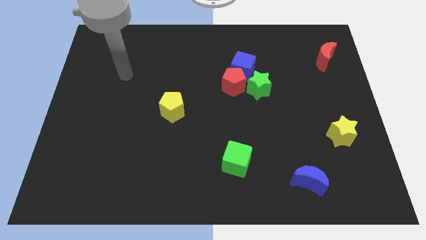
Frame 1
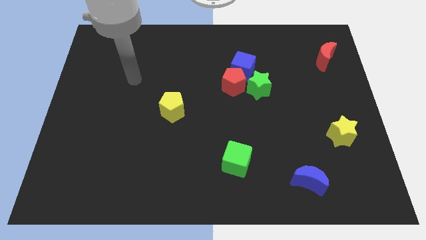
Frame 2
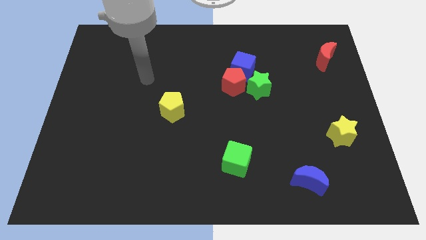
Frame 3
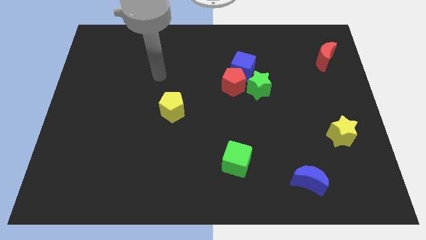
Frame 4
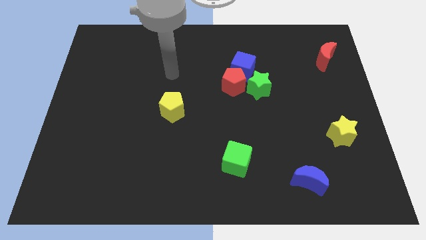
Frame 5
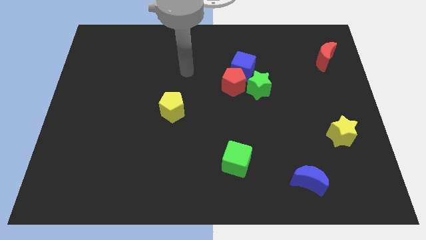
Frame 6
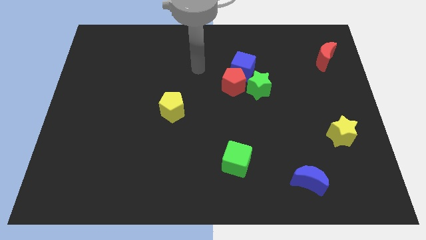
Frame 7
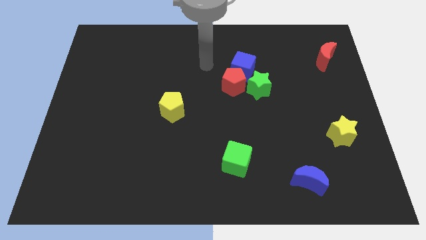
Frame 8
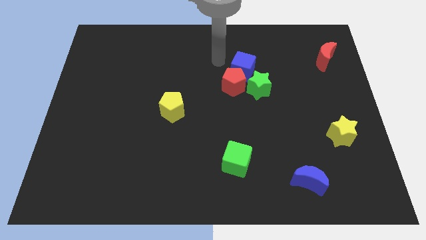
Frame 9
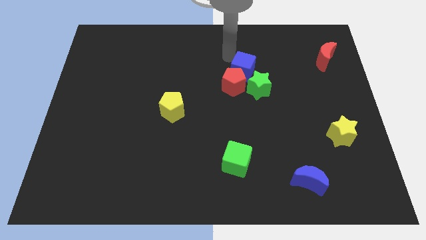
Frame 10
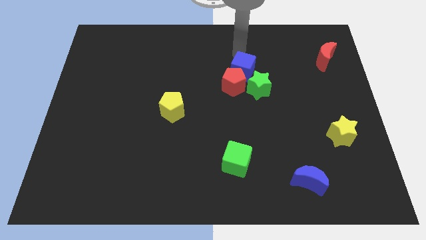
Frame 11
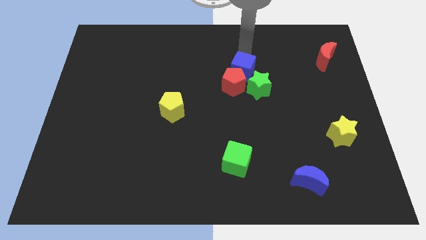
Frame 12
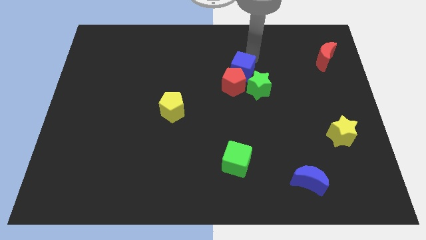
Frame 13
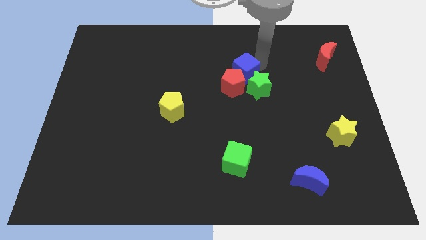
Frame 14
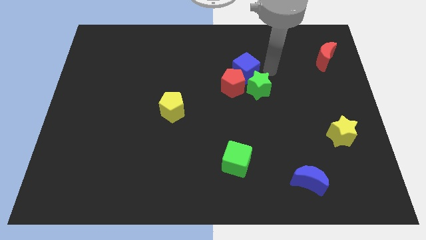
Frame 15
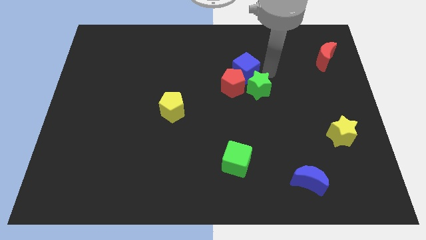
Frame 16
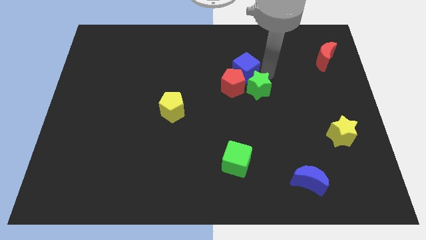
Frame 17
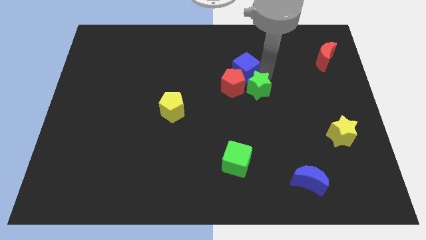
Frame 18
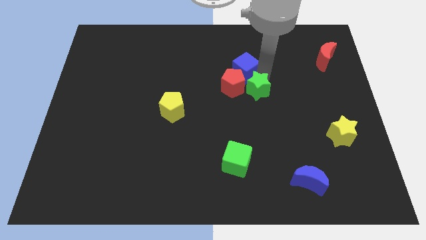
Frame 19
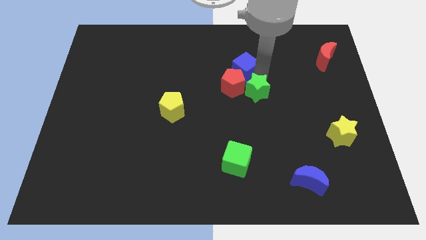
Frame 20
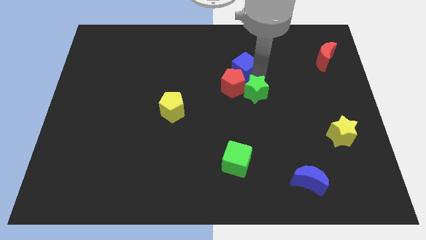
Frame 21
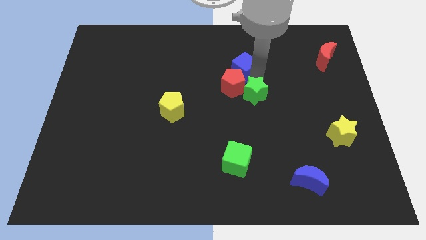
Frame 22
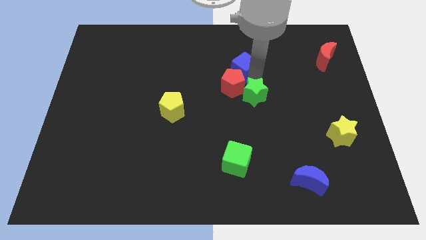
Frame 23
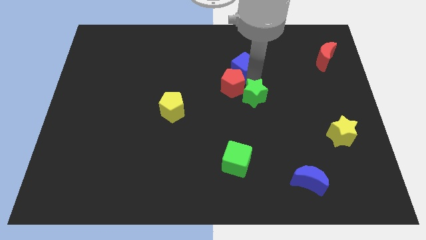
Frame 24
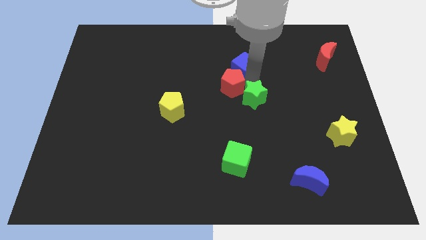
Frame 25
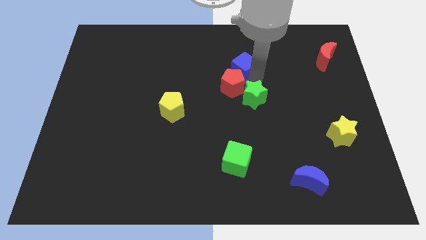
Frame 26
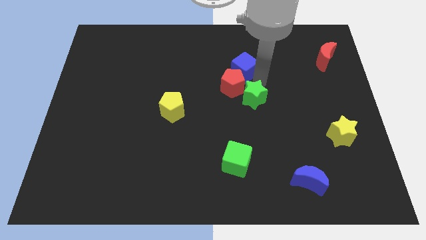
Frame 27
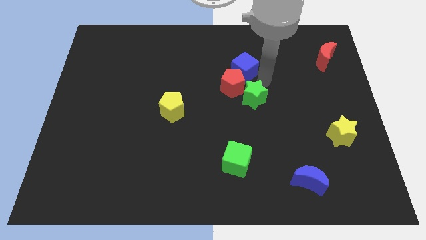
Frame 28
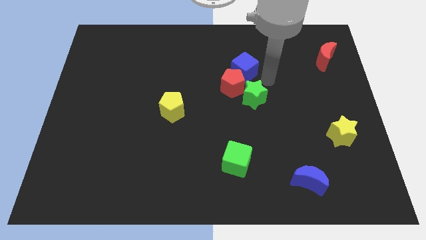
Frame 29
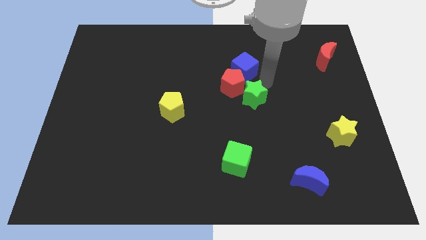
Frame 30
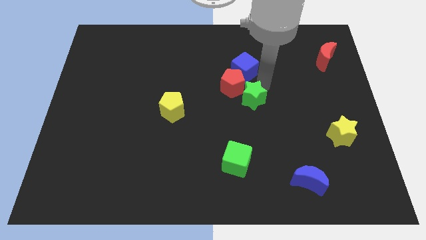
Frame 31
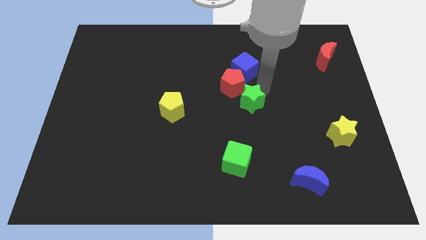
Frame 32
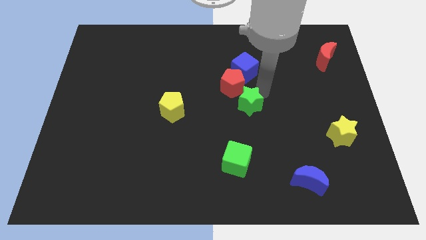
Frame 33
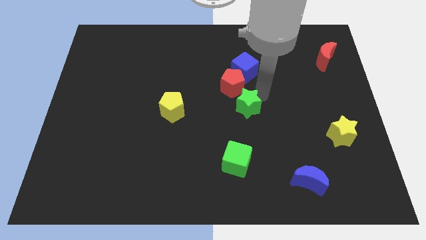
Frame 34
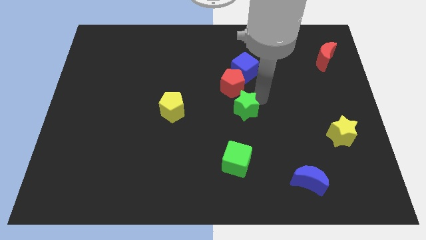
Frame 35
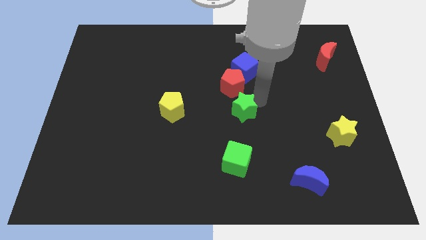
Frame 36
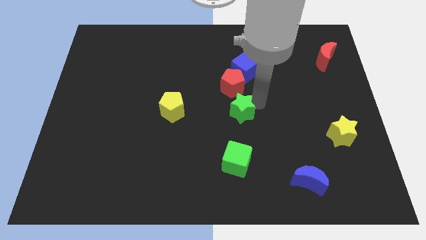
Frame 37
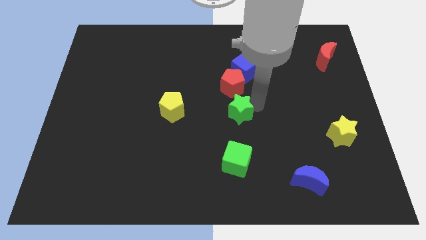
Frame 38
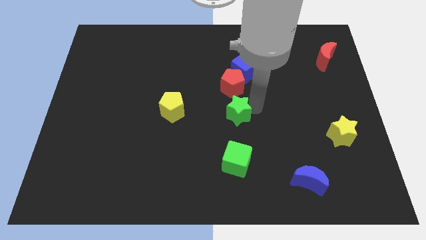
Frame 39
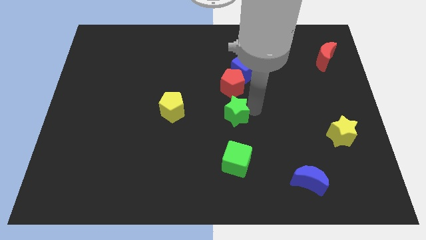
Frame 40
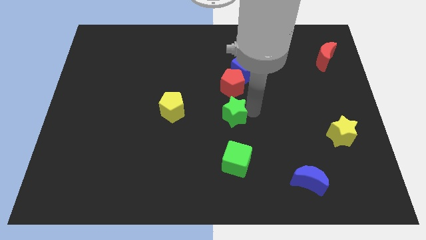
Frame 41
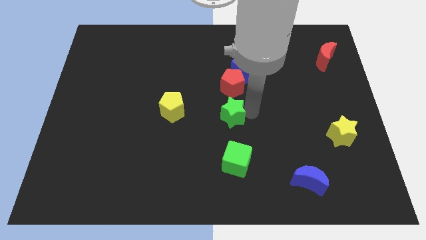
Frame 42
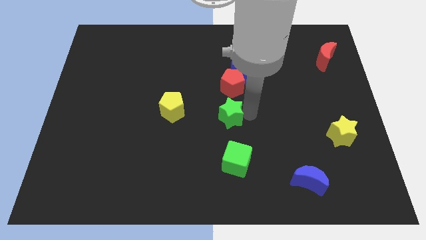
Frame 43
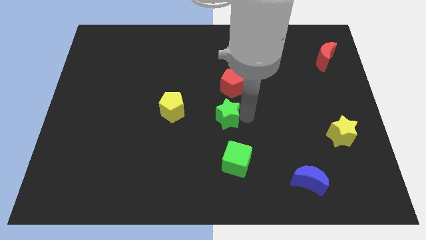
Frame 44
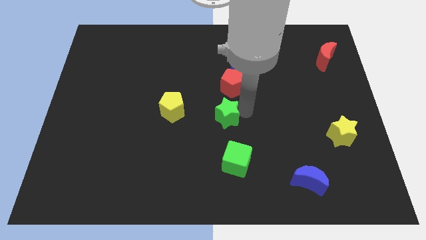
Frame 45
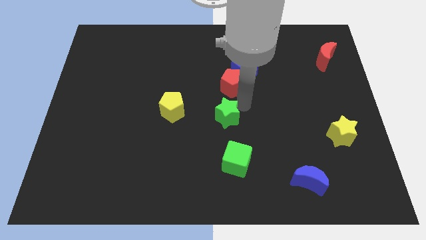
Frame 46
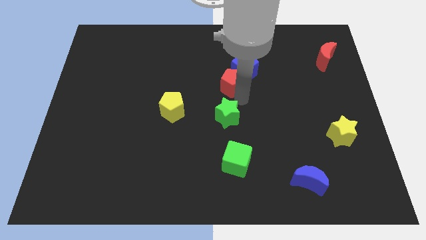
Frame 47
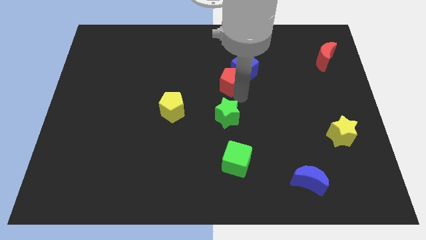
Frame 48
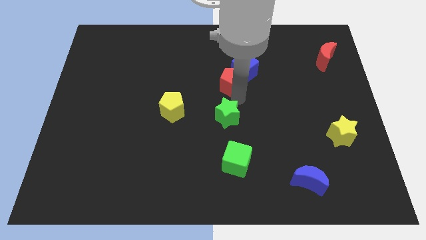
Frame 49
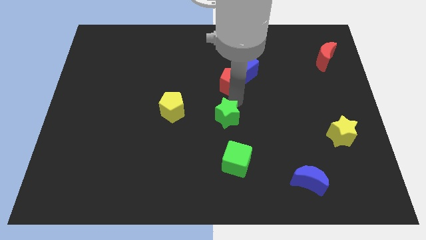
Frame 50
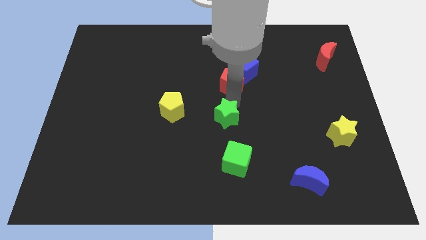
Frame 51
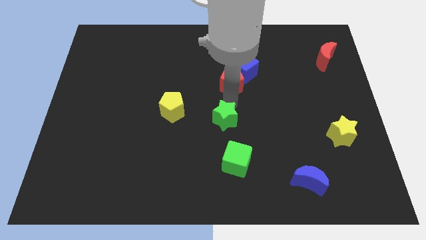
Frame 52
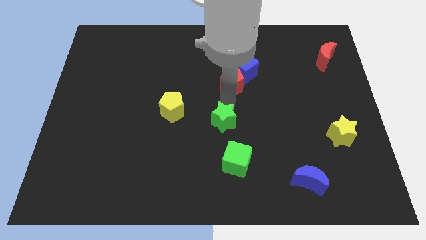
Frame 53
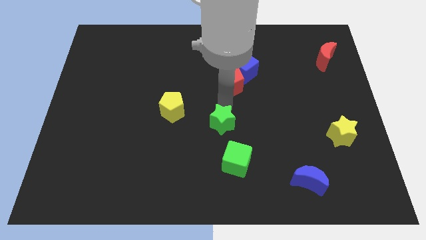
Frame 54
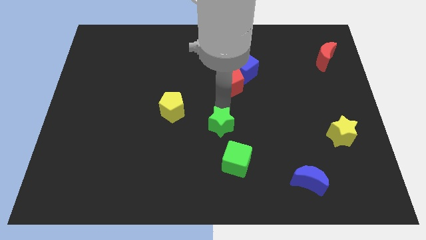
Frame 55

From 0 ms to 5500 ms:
move the green star diagonally up and to the left of the green cube

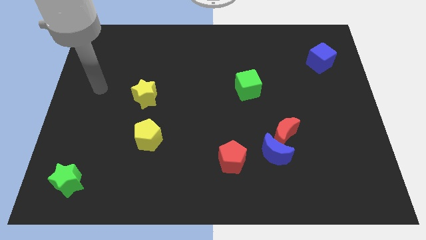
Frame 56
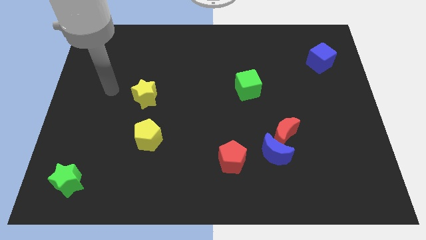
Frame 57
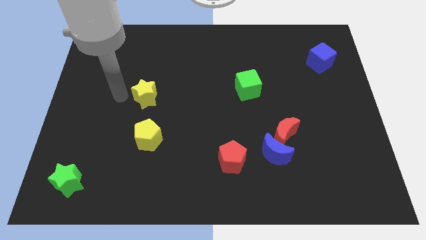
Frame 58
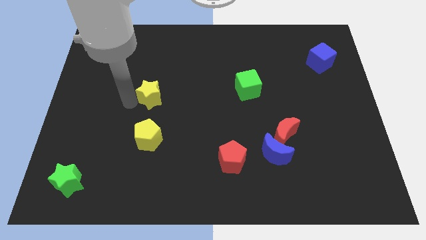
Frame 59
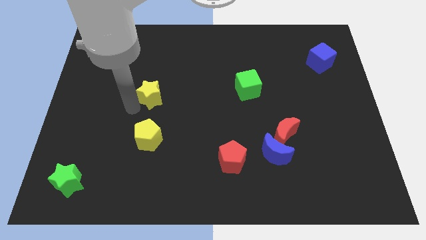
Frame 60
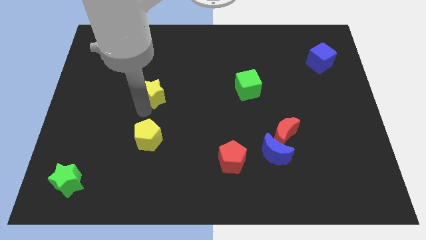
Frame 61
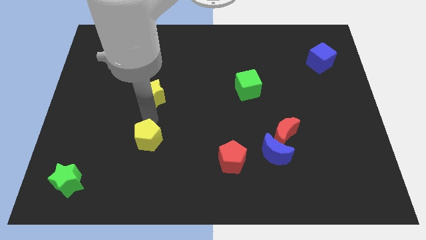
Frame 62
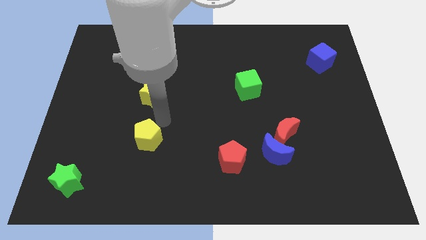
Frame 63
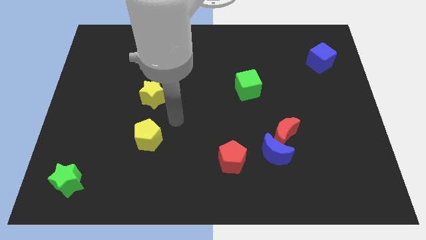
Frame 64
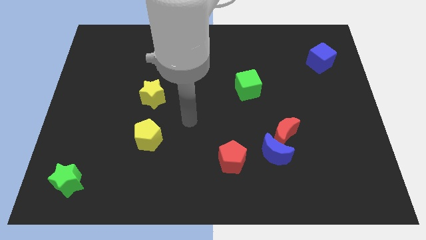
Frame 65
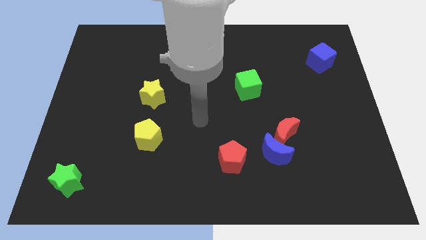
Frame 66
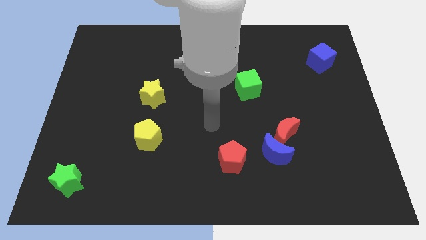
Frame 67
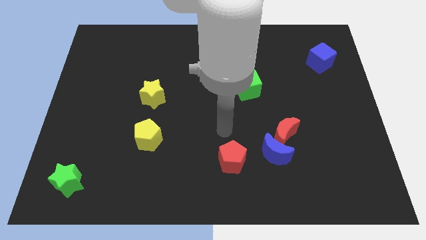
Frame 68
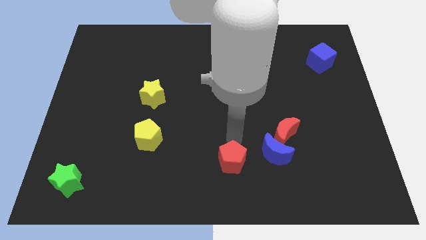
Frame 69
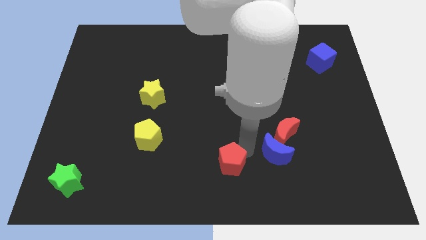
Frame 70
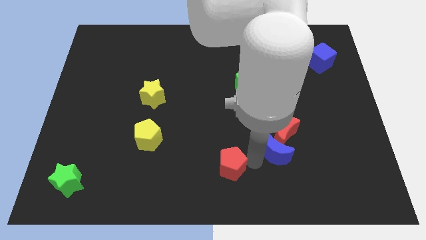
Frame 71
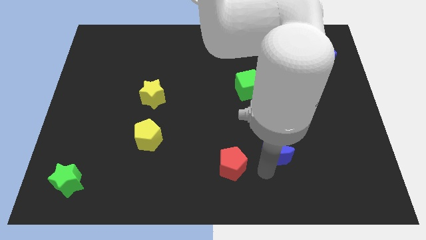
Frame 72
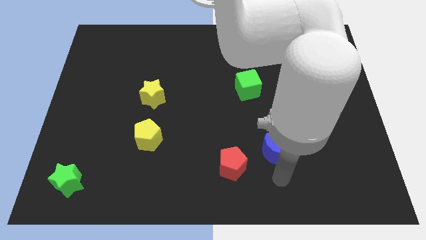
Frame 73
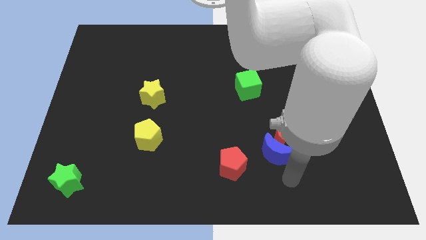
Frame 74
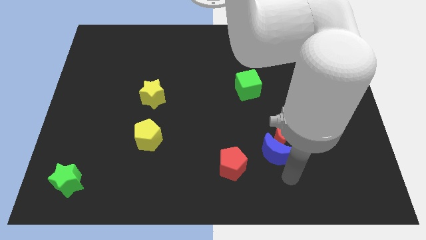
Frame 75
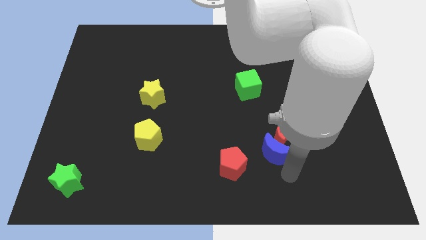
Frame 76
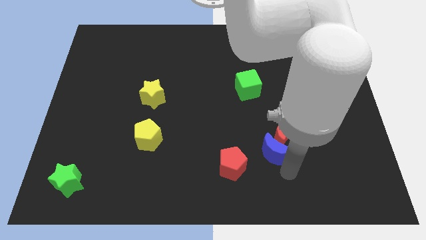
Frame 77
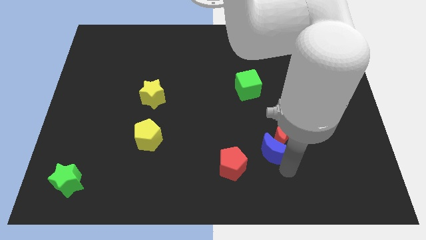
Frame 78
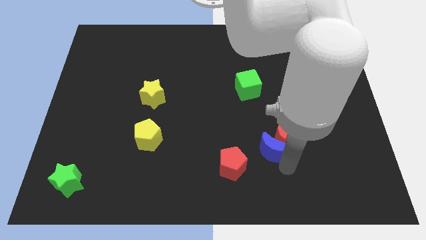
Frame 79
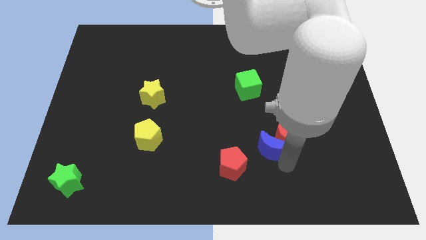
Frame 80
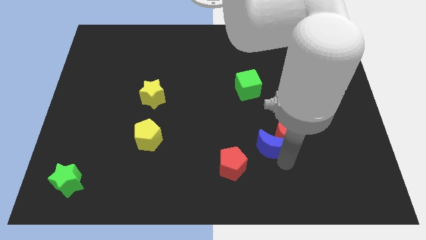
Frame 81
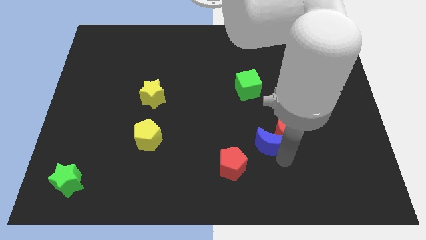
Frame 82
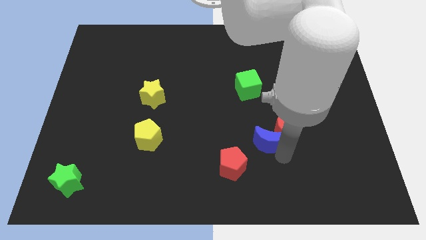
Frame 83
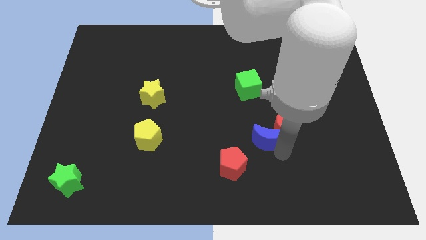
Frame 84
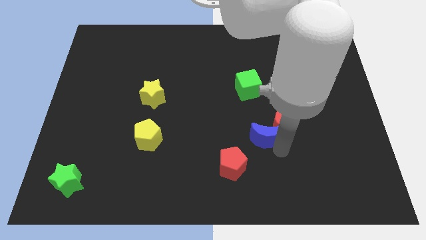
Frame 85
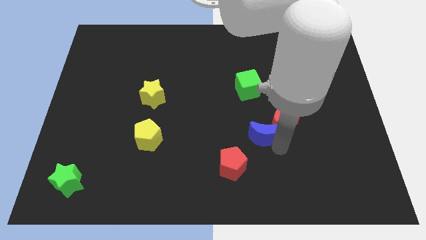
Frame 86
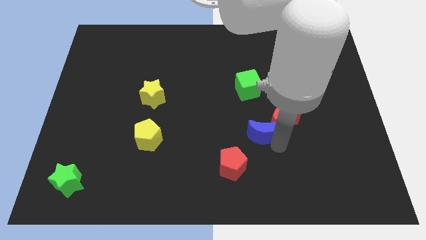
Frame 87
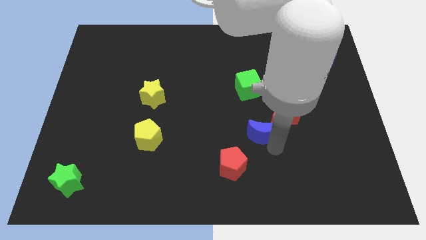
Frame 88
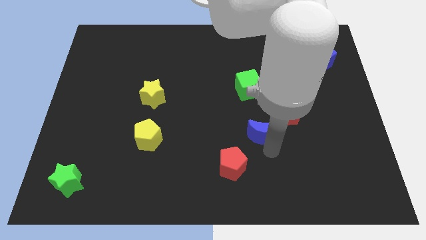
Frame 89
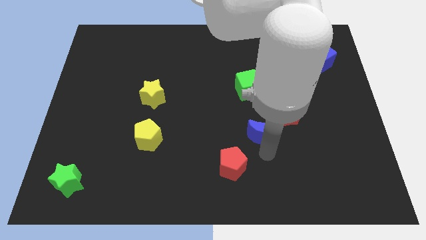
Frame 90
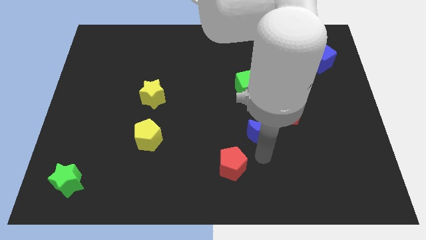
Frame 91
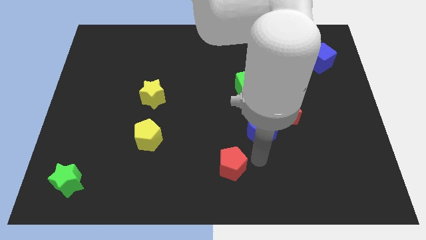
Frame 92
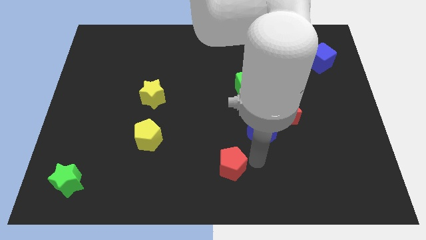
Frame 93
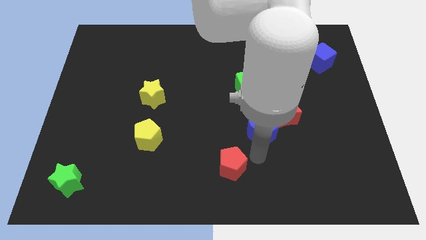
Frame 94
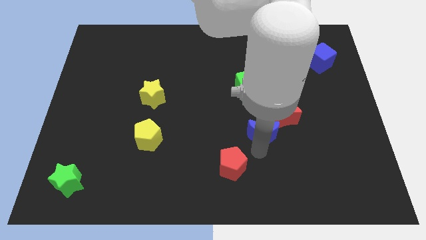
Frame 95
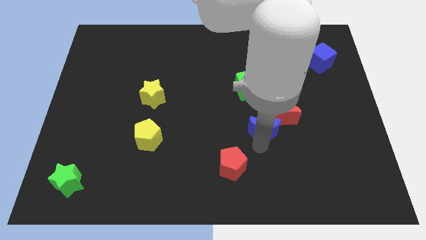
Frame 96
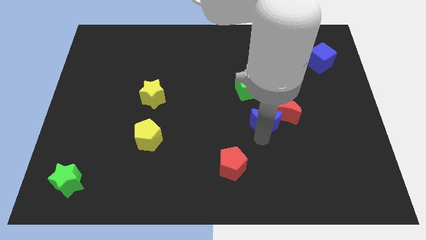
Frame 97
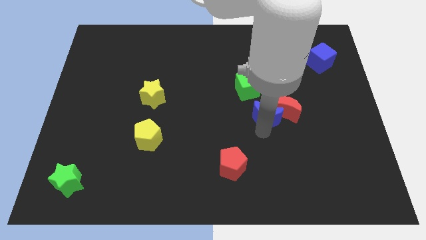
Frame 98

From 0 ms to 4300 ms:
push the blue moon to the bottom right side of the green cube
